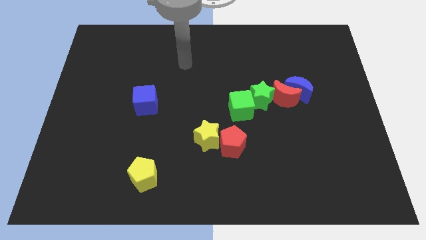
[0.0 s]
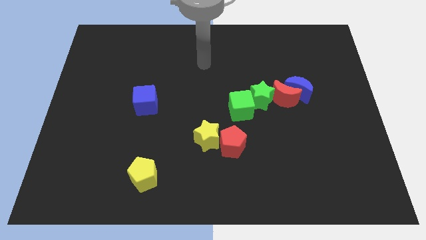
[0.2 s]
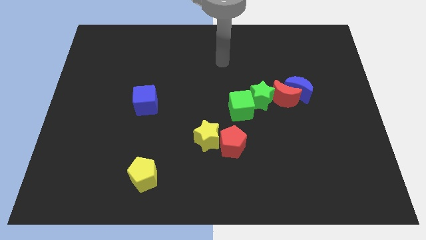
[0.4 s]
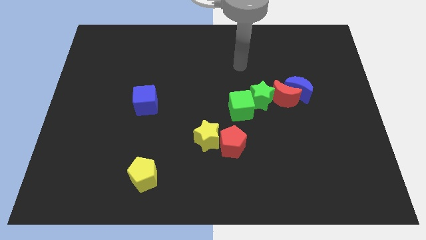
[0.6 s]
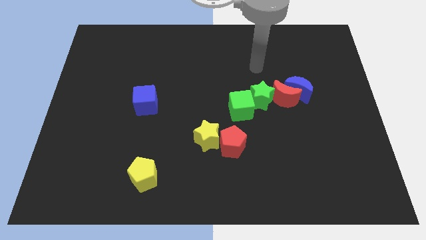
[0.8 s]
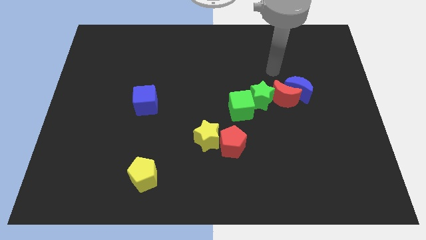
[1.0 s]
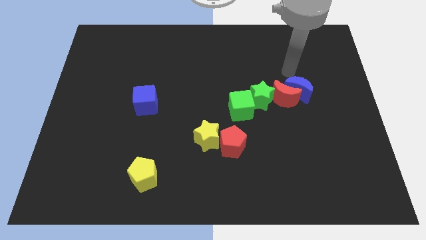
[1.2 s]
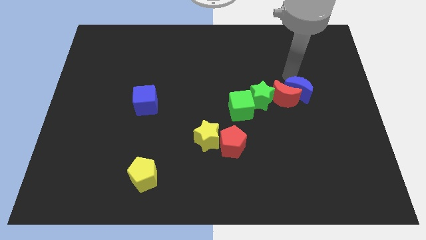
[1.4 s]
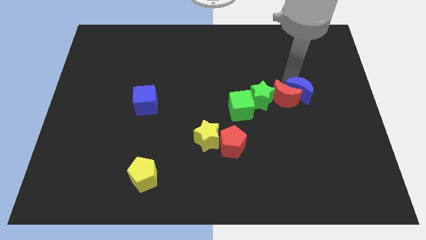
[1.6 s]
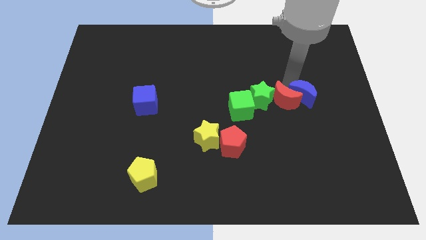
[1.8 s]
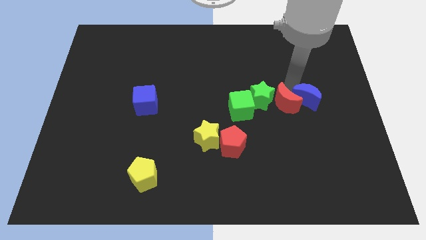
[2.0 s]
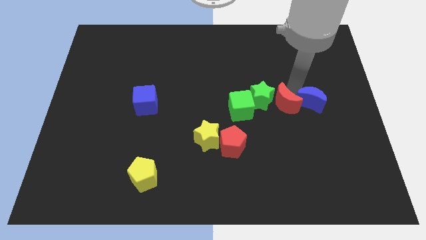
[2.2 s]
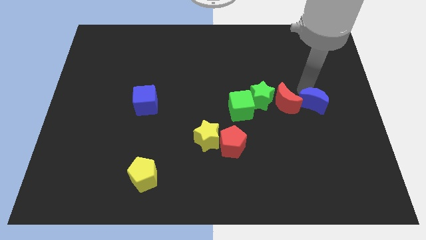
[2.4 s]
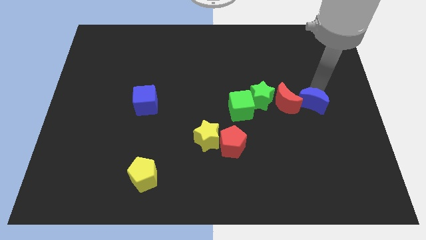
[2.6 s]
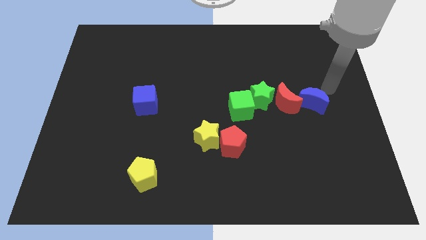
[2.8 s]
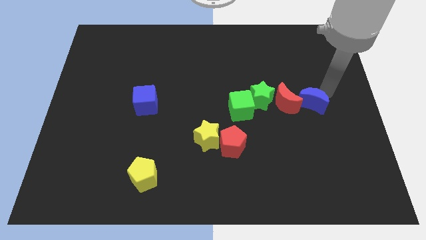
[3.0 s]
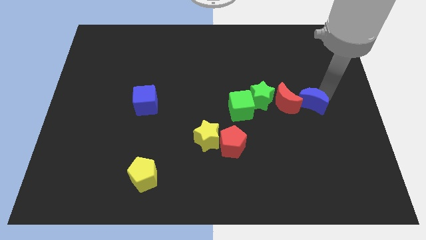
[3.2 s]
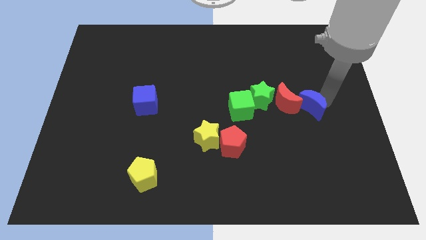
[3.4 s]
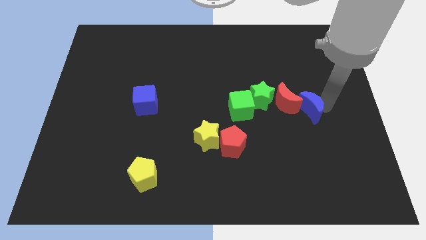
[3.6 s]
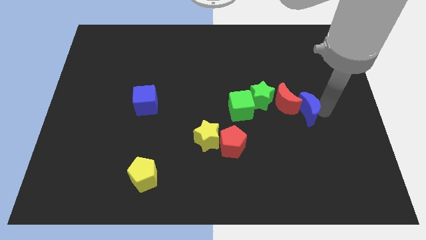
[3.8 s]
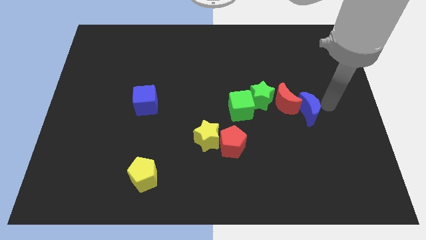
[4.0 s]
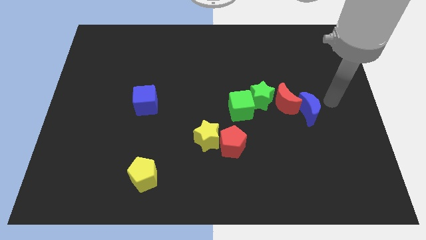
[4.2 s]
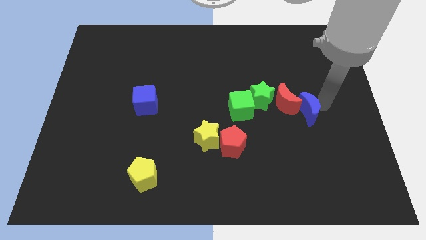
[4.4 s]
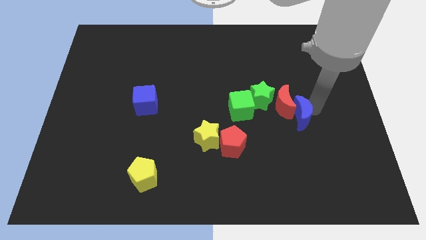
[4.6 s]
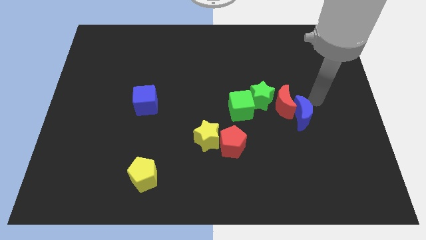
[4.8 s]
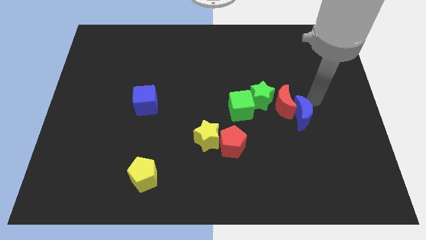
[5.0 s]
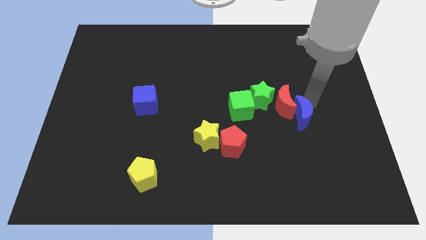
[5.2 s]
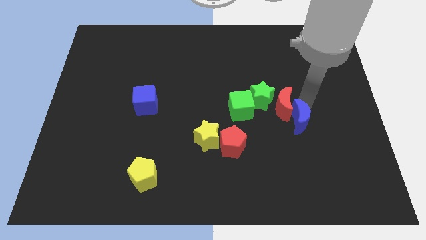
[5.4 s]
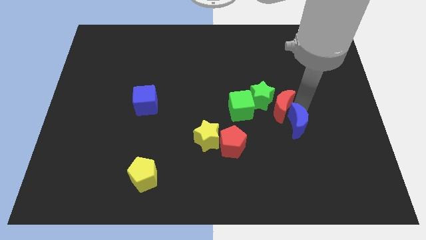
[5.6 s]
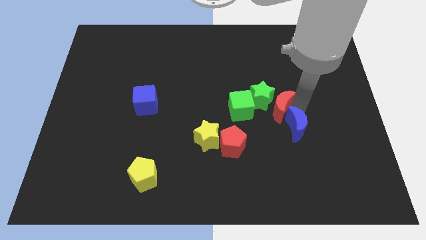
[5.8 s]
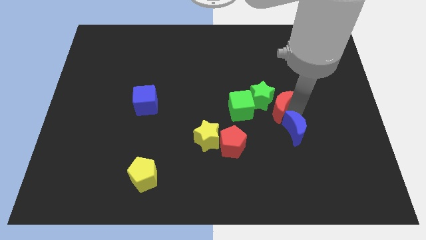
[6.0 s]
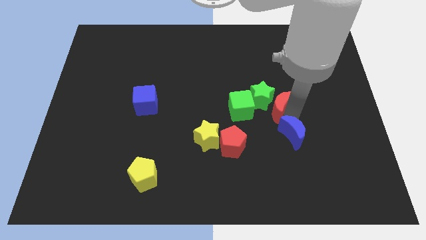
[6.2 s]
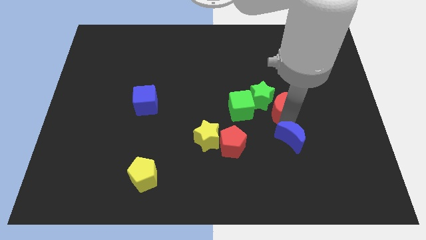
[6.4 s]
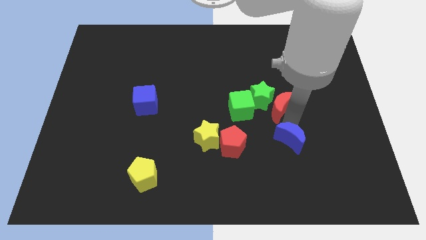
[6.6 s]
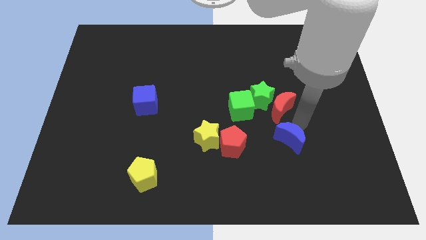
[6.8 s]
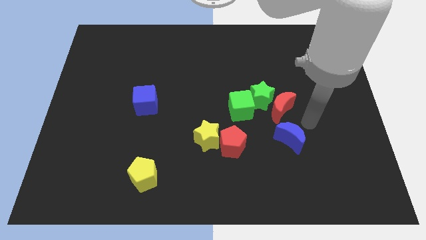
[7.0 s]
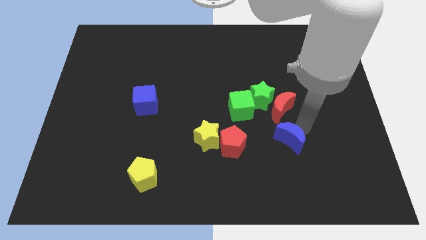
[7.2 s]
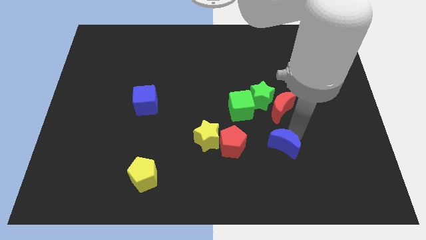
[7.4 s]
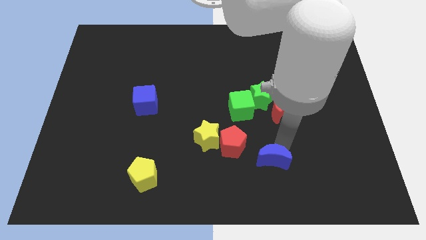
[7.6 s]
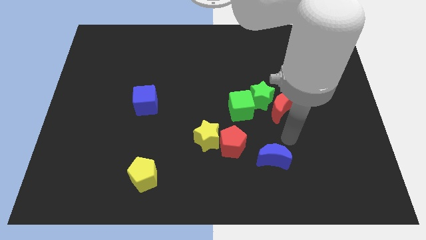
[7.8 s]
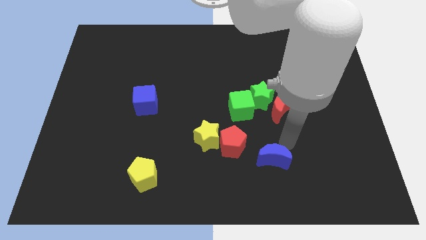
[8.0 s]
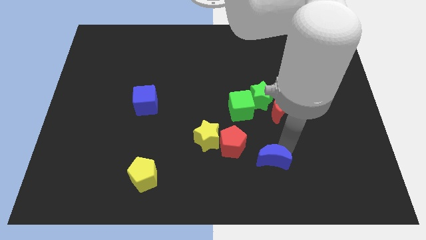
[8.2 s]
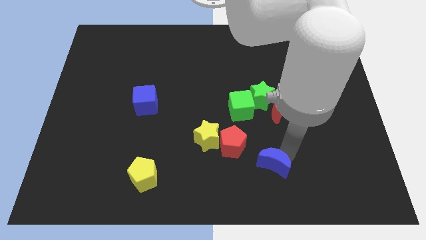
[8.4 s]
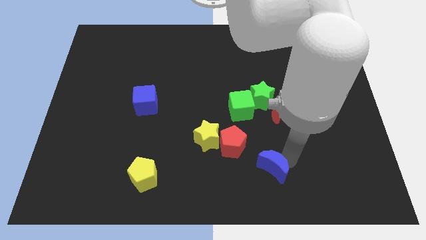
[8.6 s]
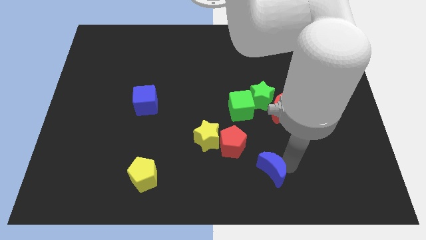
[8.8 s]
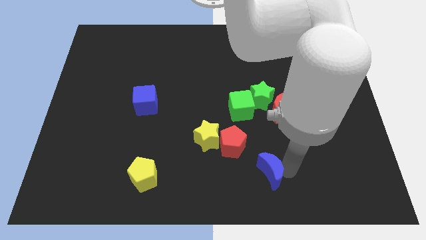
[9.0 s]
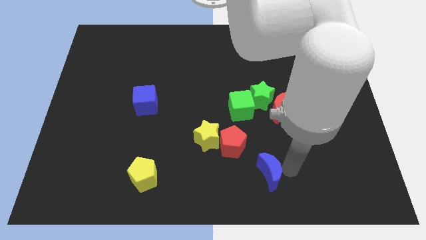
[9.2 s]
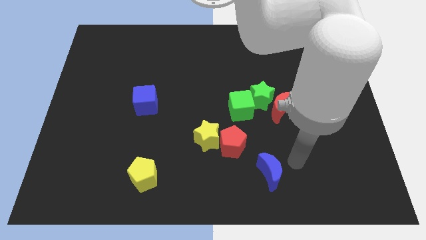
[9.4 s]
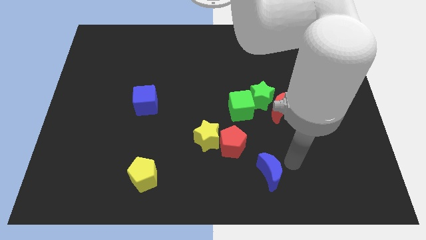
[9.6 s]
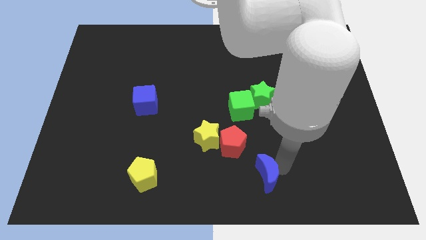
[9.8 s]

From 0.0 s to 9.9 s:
put the blue moon to the bottom side

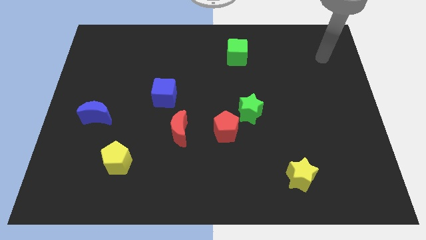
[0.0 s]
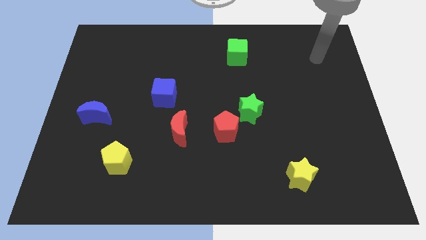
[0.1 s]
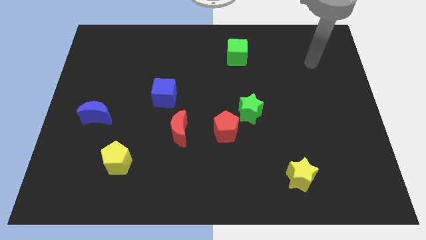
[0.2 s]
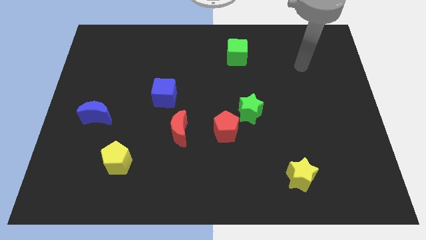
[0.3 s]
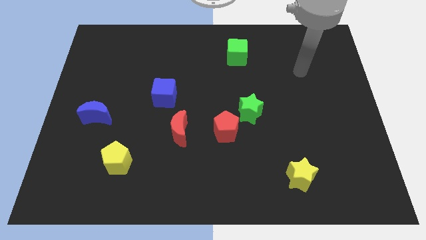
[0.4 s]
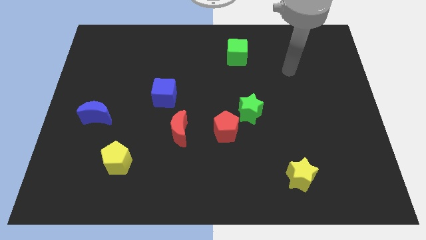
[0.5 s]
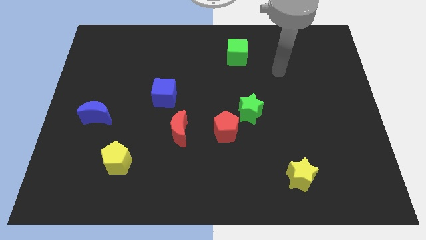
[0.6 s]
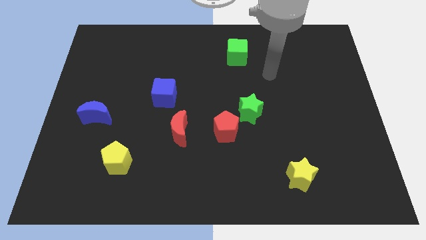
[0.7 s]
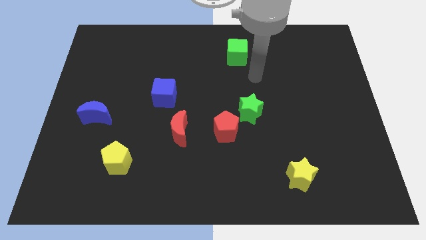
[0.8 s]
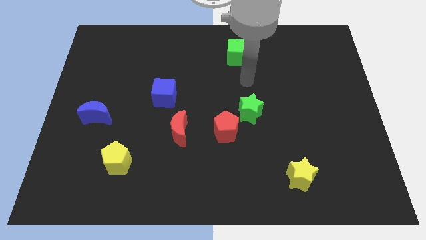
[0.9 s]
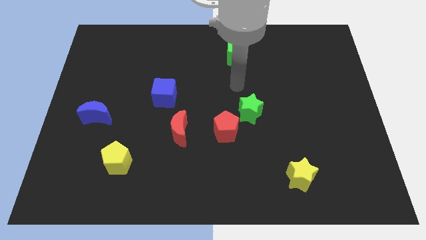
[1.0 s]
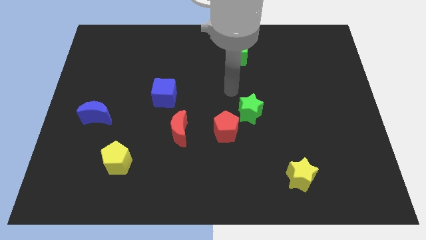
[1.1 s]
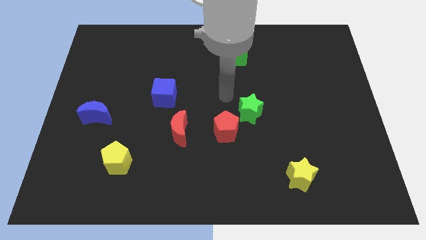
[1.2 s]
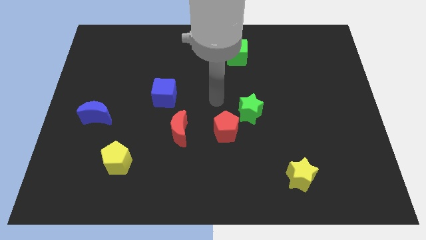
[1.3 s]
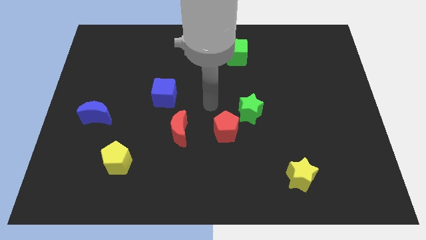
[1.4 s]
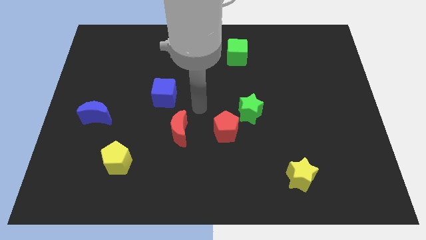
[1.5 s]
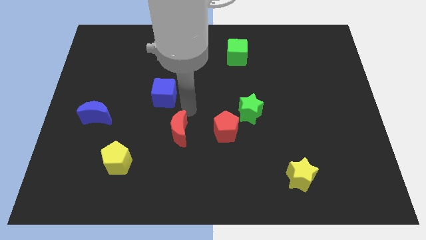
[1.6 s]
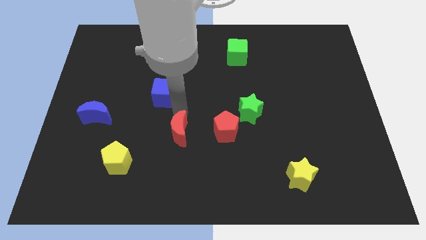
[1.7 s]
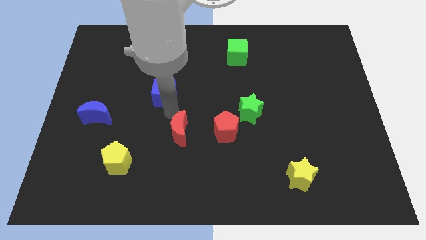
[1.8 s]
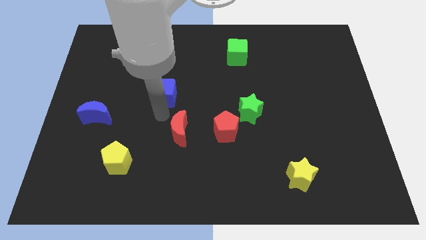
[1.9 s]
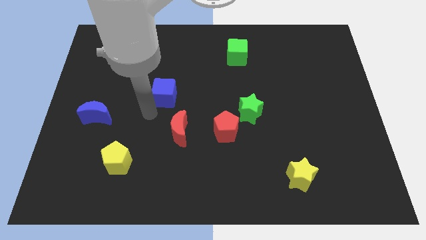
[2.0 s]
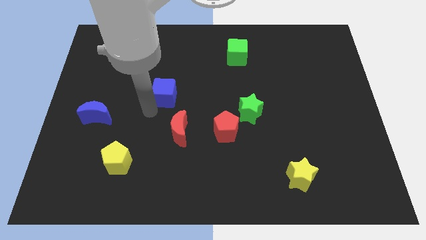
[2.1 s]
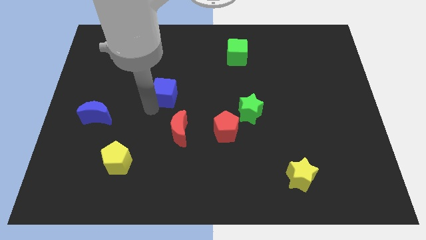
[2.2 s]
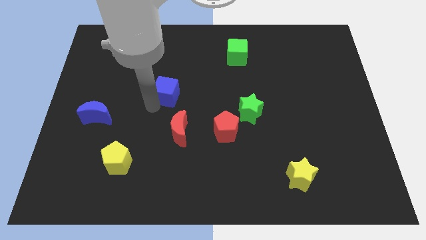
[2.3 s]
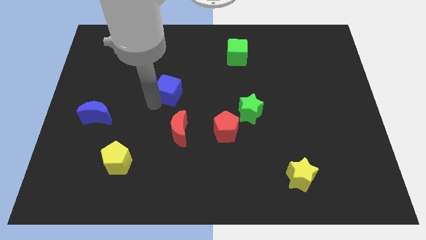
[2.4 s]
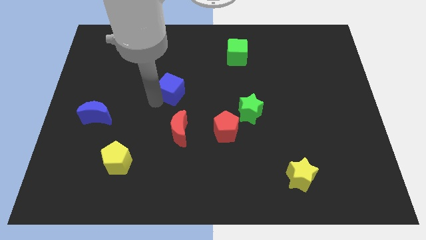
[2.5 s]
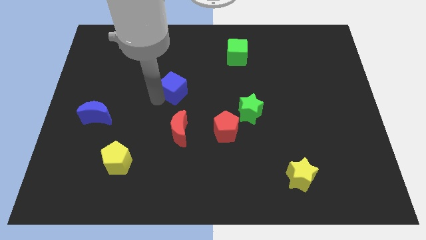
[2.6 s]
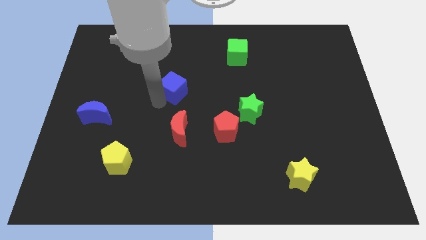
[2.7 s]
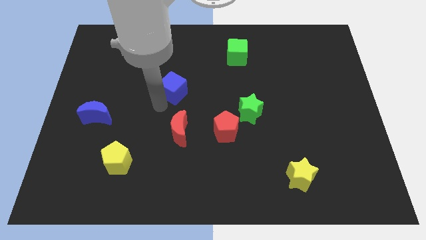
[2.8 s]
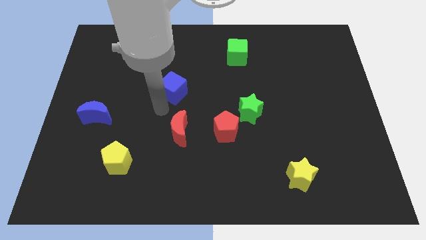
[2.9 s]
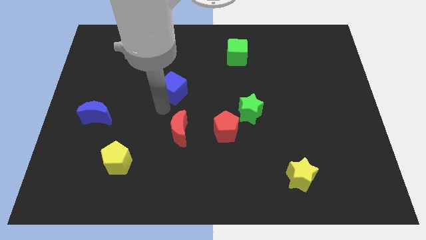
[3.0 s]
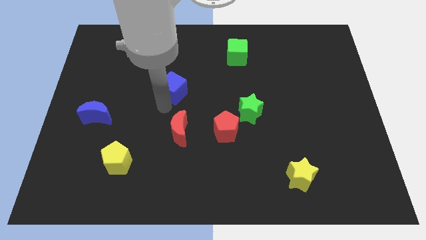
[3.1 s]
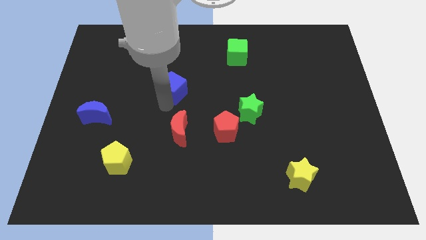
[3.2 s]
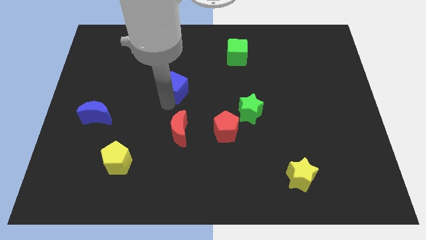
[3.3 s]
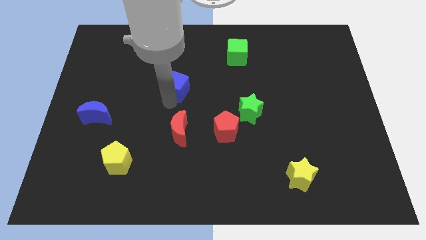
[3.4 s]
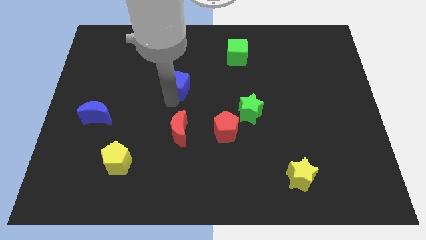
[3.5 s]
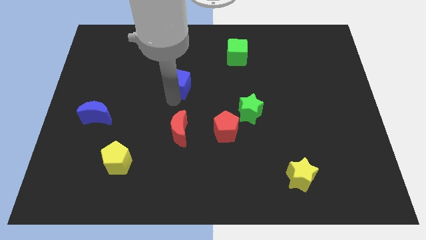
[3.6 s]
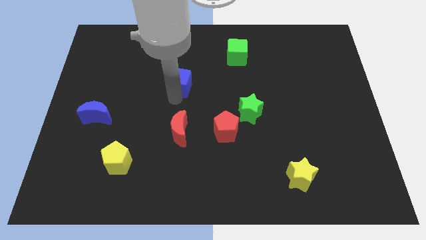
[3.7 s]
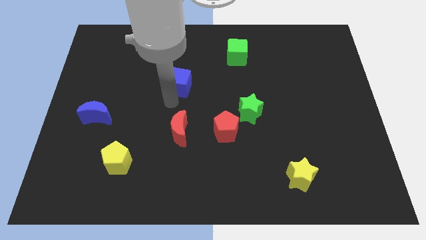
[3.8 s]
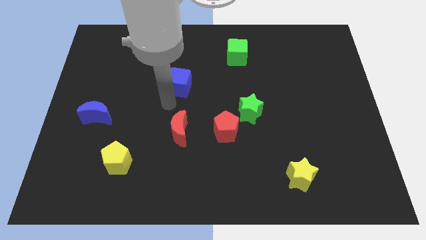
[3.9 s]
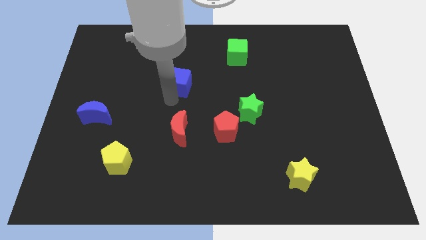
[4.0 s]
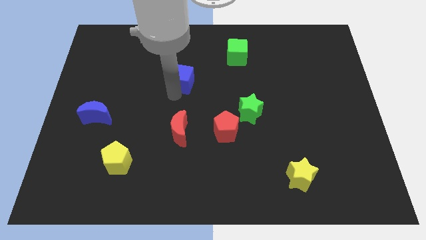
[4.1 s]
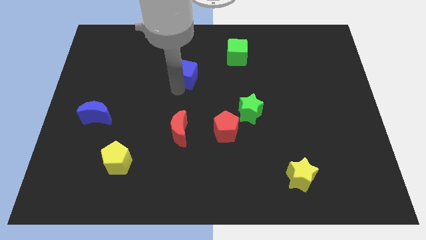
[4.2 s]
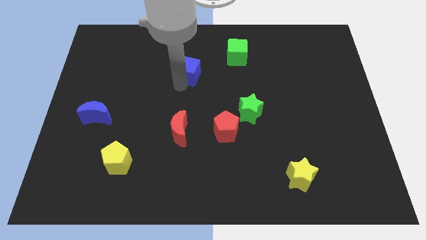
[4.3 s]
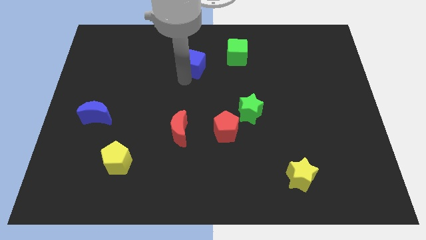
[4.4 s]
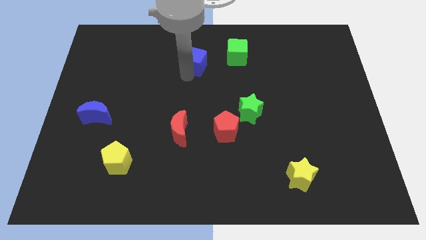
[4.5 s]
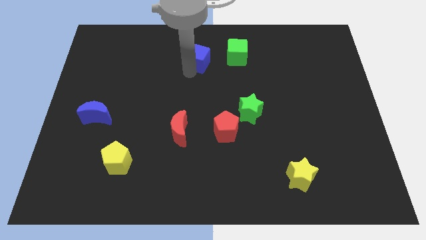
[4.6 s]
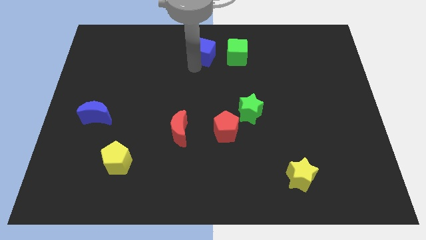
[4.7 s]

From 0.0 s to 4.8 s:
put the blue cube to the top
